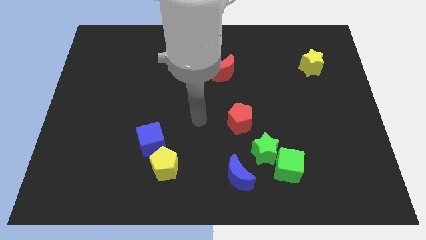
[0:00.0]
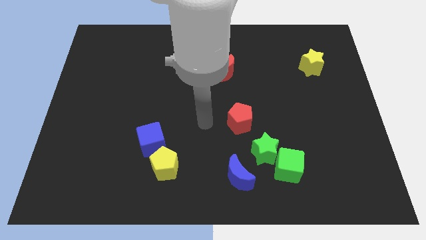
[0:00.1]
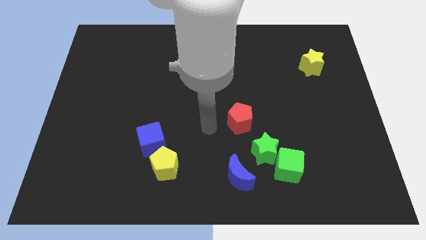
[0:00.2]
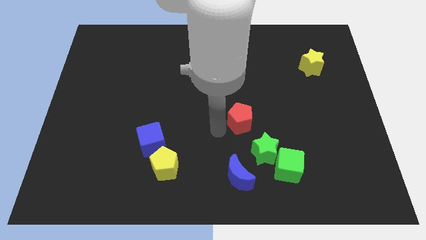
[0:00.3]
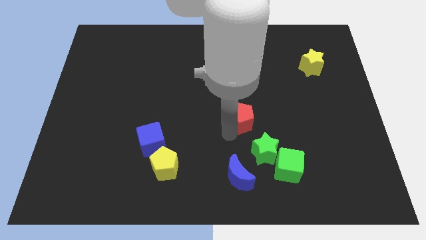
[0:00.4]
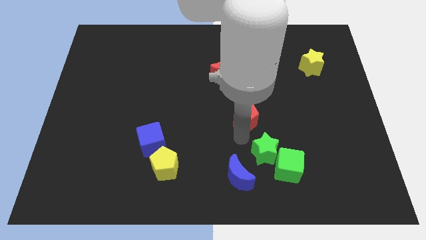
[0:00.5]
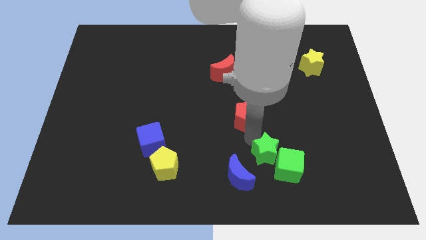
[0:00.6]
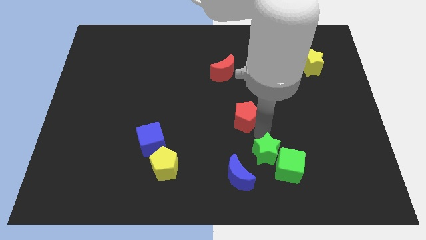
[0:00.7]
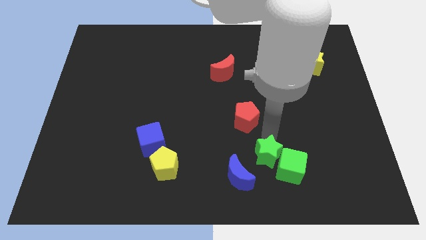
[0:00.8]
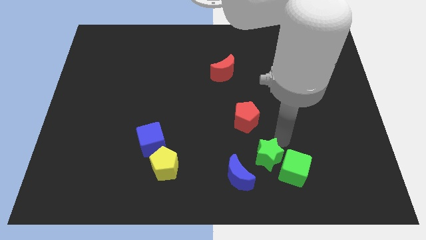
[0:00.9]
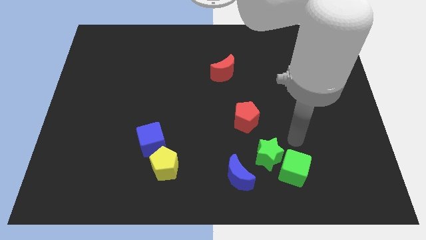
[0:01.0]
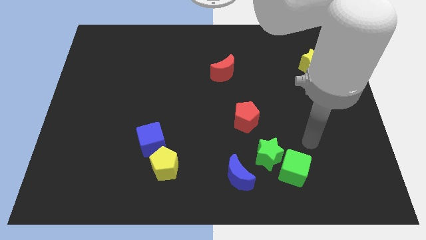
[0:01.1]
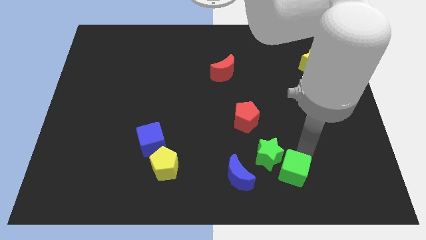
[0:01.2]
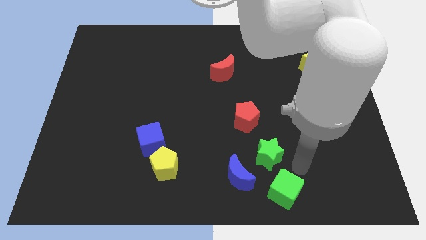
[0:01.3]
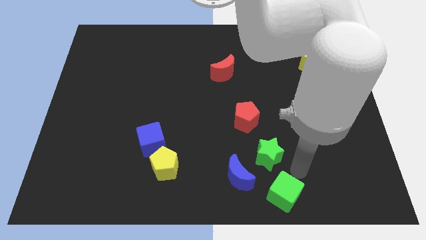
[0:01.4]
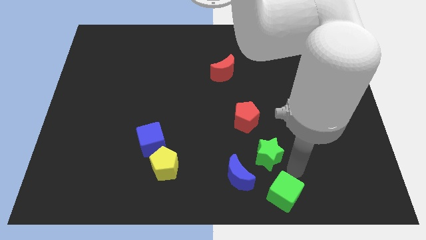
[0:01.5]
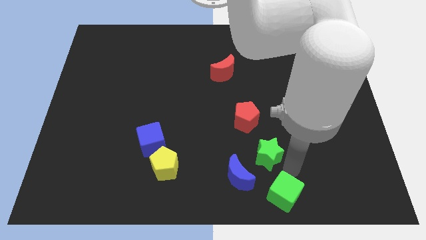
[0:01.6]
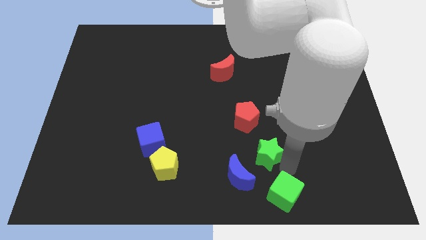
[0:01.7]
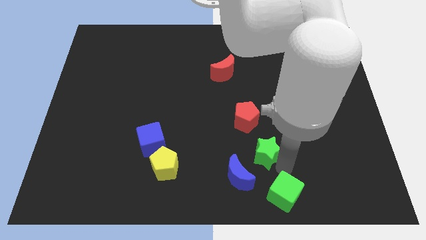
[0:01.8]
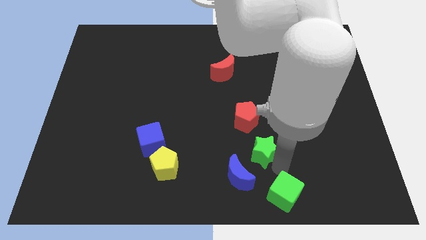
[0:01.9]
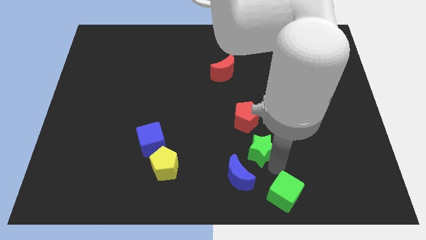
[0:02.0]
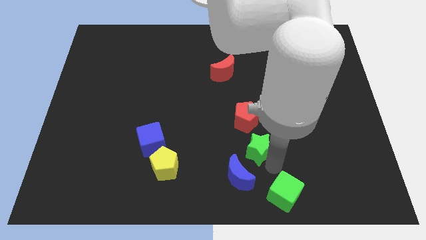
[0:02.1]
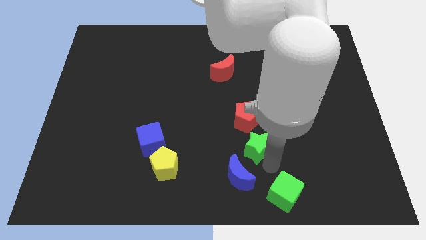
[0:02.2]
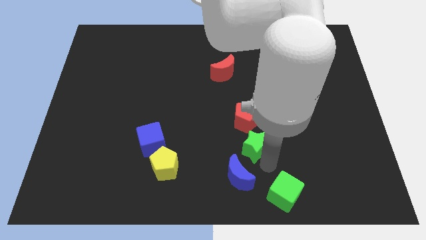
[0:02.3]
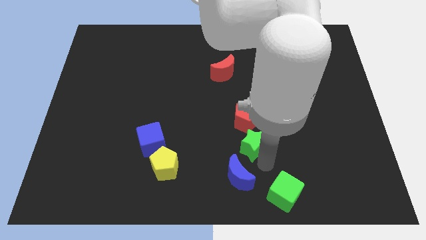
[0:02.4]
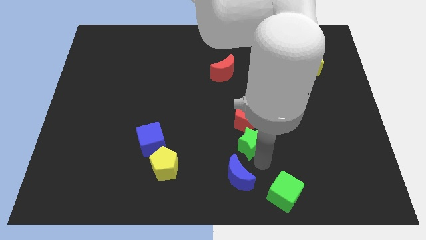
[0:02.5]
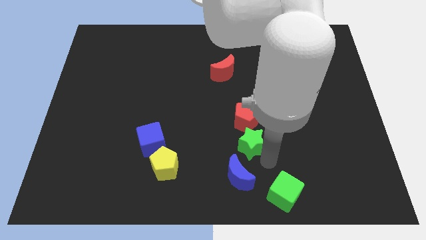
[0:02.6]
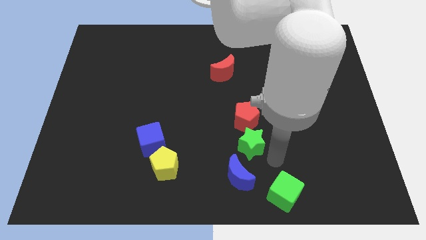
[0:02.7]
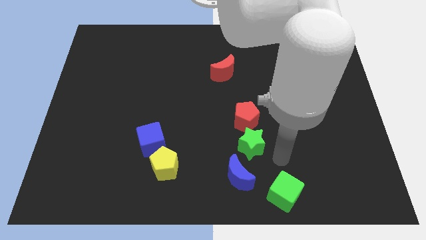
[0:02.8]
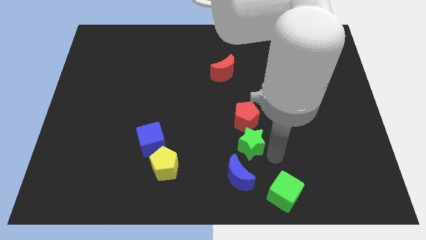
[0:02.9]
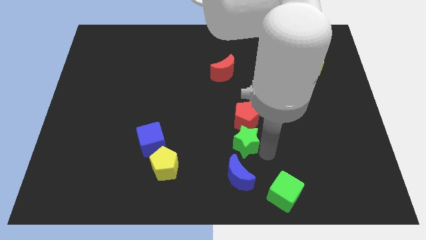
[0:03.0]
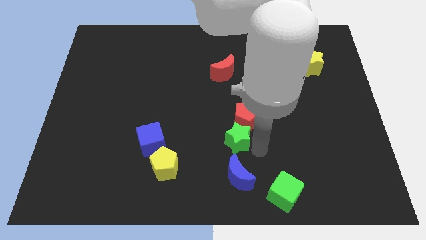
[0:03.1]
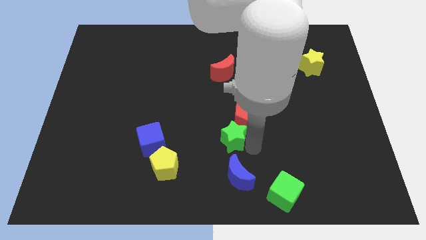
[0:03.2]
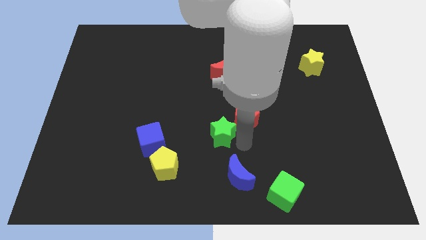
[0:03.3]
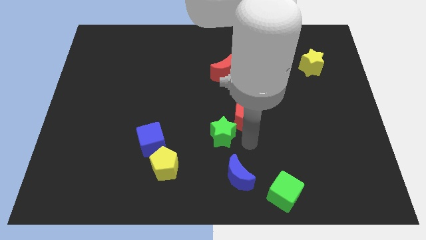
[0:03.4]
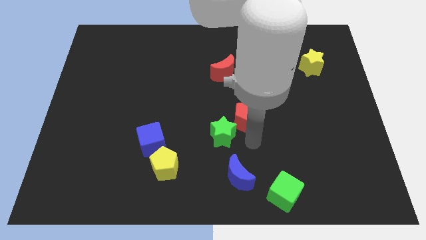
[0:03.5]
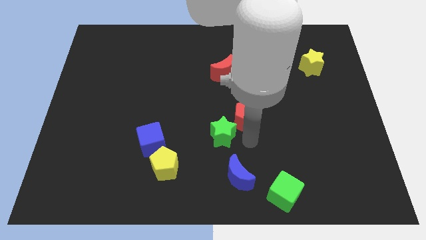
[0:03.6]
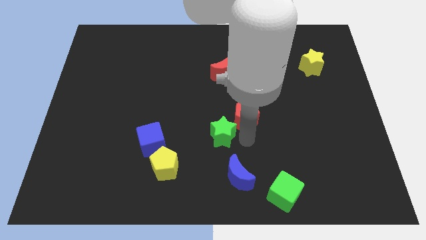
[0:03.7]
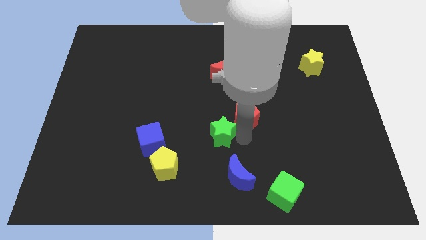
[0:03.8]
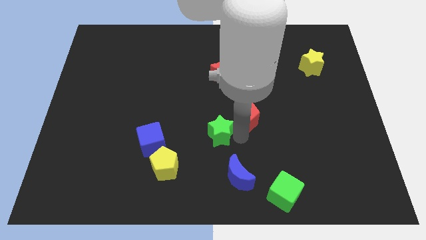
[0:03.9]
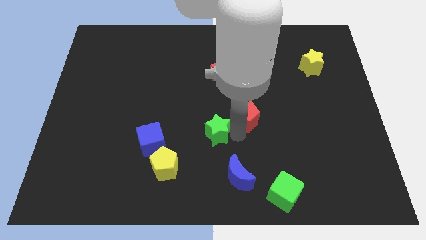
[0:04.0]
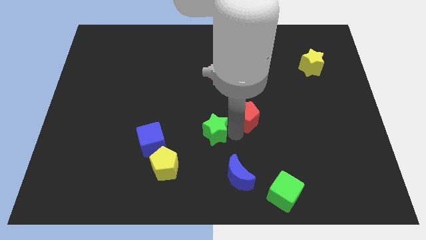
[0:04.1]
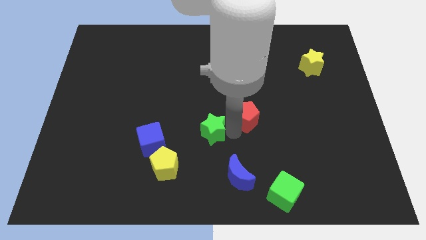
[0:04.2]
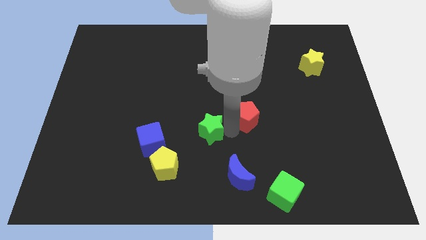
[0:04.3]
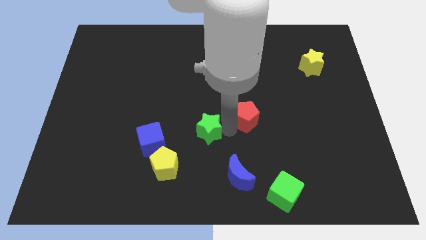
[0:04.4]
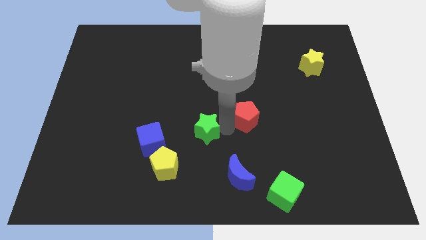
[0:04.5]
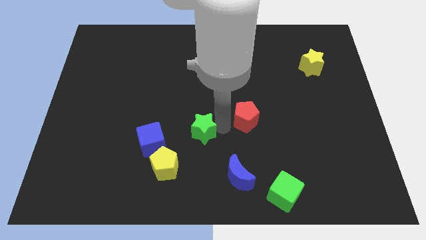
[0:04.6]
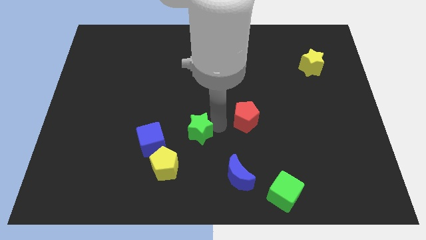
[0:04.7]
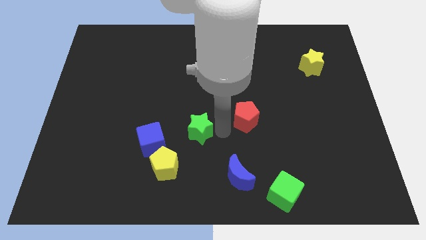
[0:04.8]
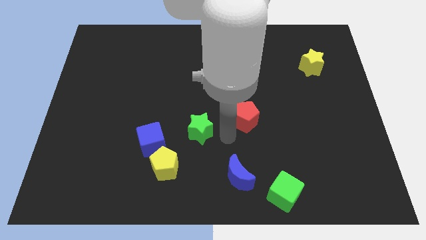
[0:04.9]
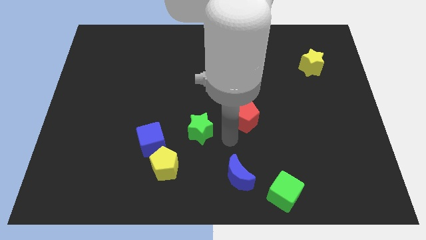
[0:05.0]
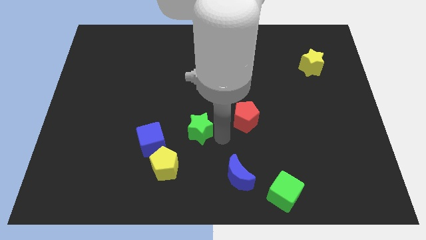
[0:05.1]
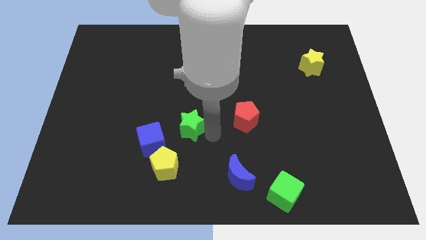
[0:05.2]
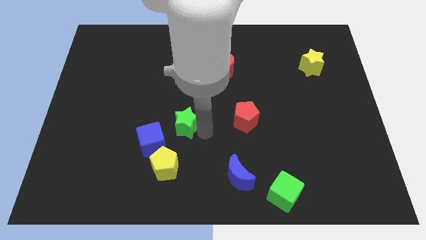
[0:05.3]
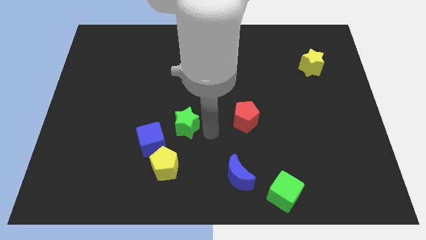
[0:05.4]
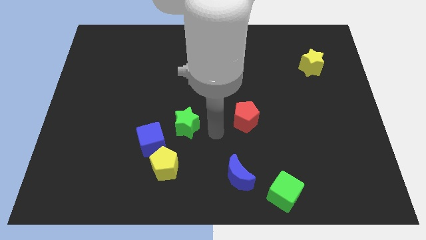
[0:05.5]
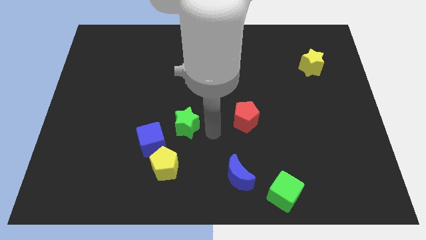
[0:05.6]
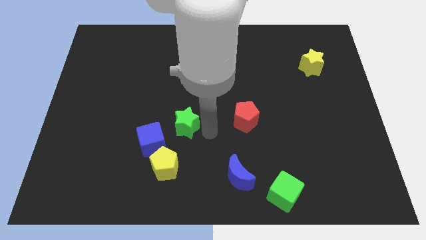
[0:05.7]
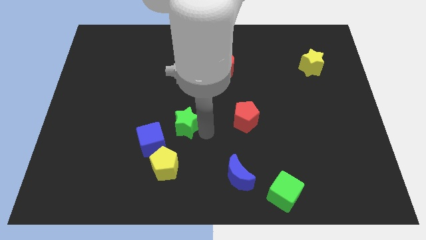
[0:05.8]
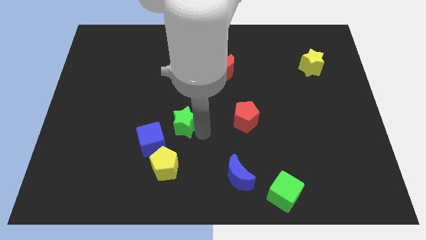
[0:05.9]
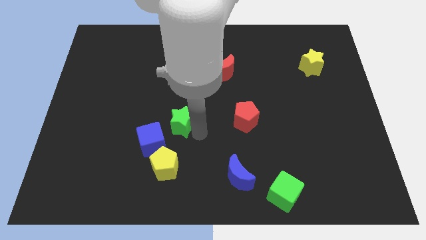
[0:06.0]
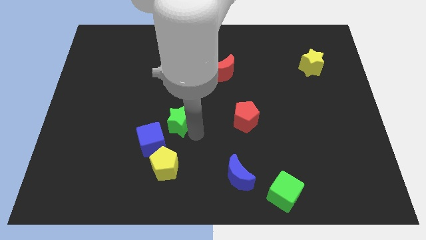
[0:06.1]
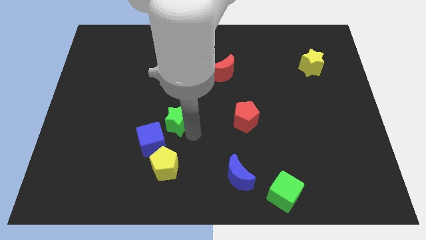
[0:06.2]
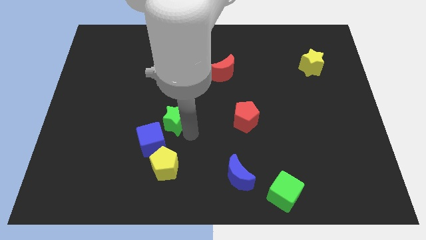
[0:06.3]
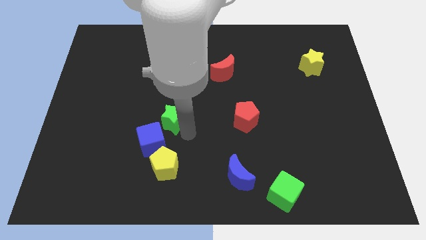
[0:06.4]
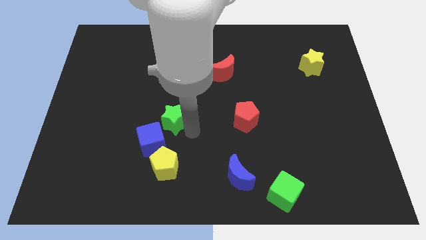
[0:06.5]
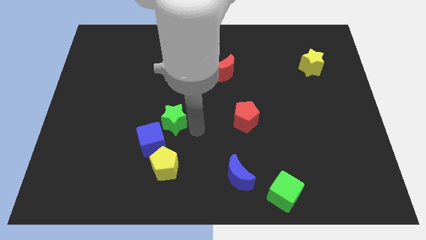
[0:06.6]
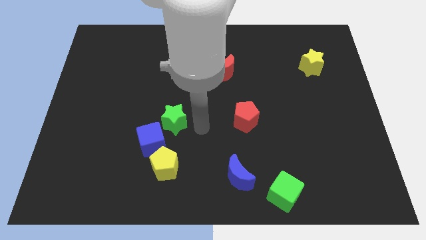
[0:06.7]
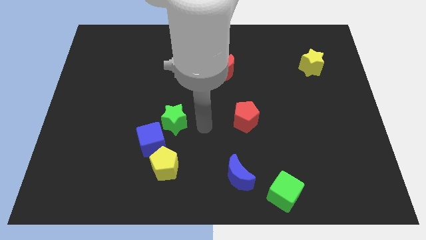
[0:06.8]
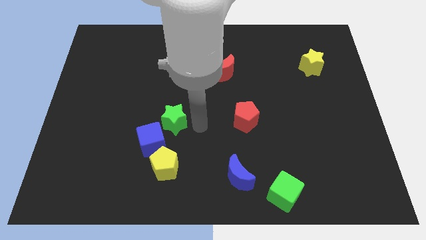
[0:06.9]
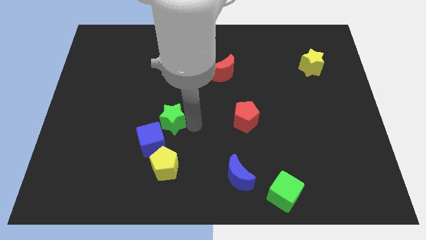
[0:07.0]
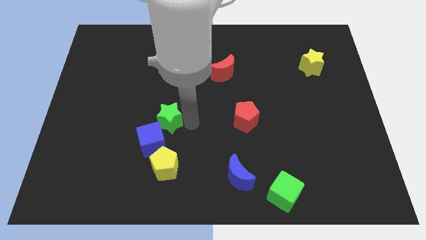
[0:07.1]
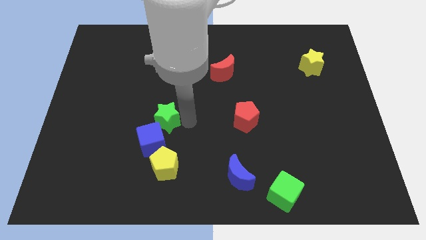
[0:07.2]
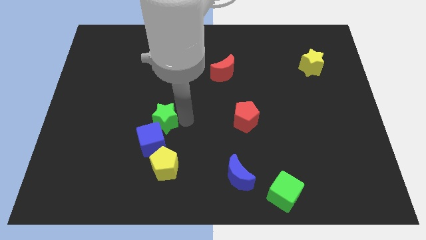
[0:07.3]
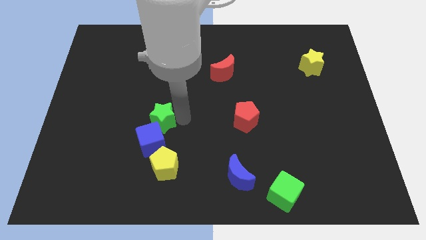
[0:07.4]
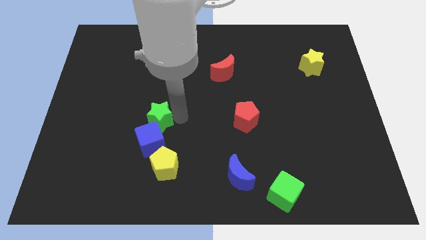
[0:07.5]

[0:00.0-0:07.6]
move the green star to the left

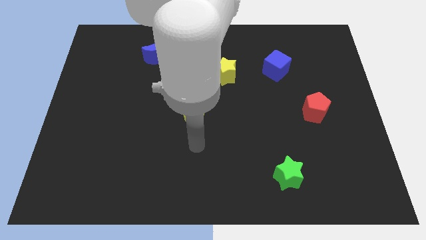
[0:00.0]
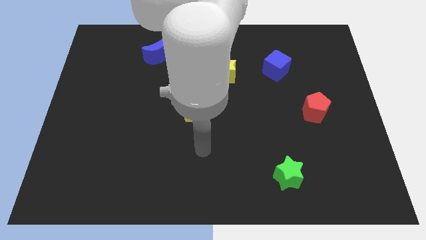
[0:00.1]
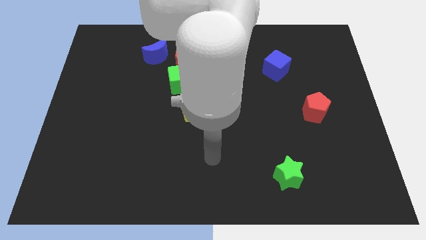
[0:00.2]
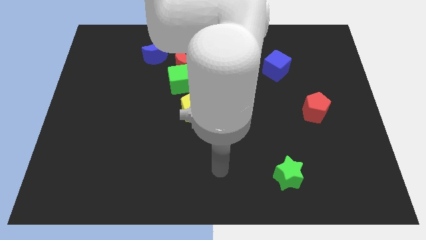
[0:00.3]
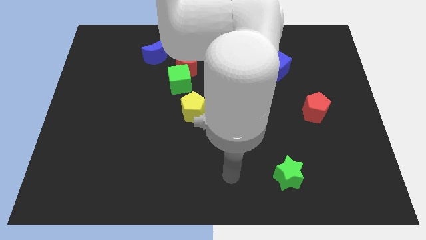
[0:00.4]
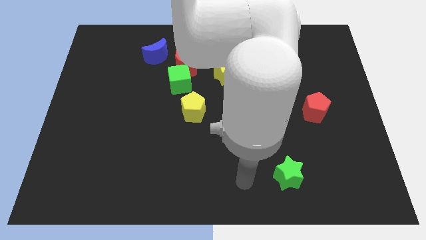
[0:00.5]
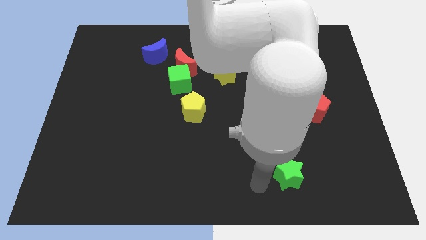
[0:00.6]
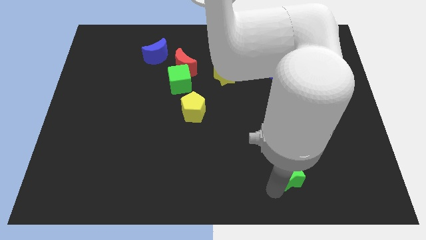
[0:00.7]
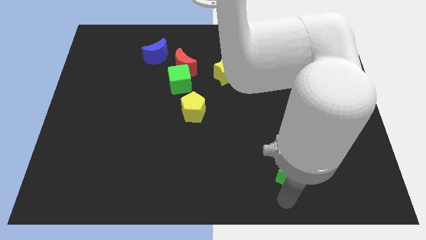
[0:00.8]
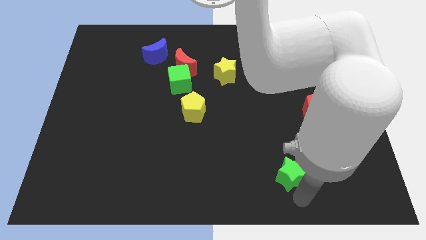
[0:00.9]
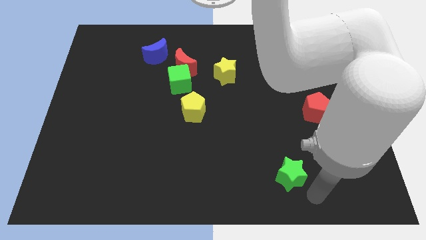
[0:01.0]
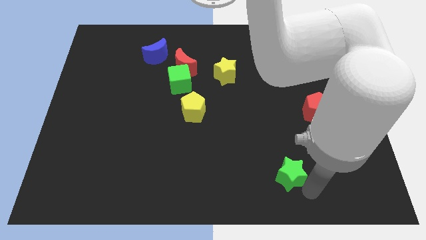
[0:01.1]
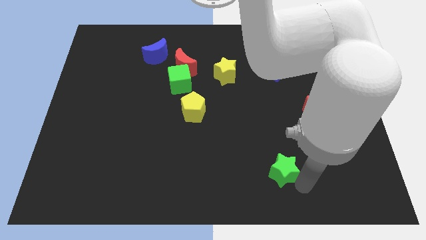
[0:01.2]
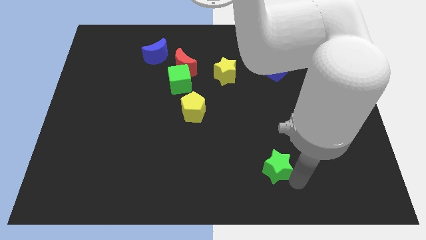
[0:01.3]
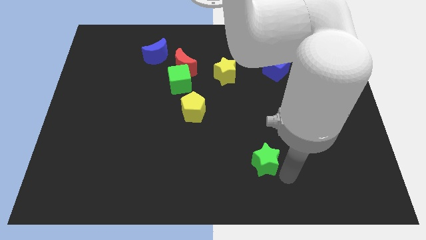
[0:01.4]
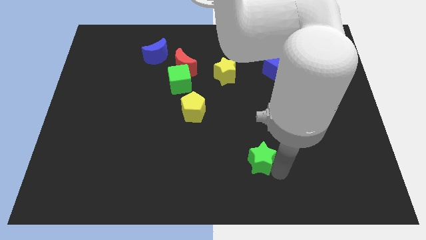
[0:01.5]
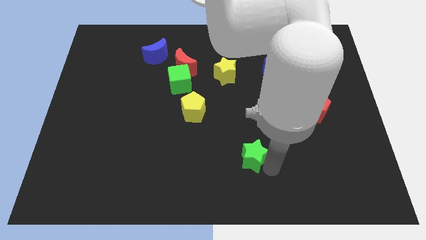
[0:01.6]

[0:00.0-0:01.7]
slide the green star somewhat up and to the left diagonally
